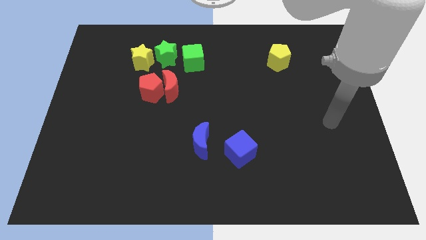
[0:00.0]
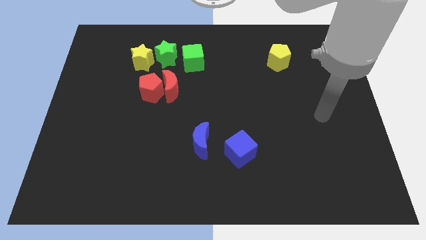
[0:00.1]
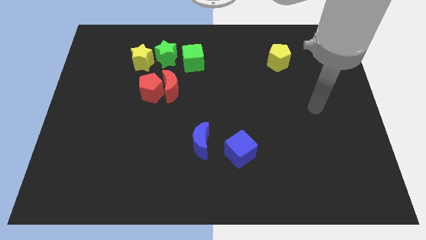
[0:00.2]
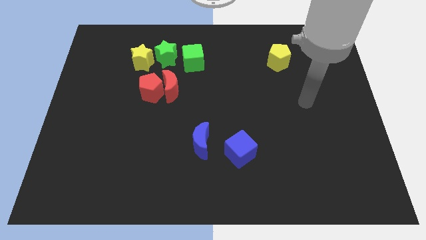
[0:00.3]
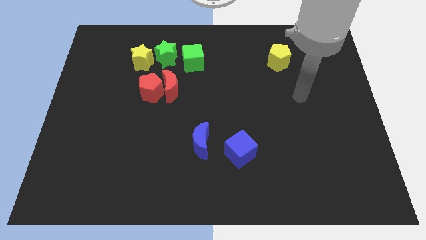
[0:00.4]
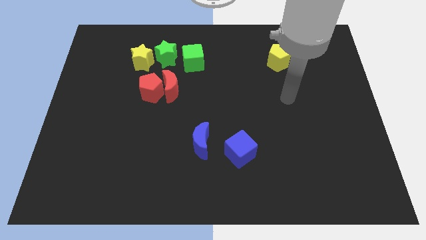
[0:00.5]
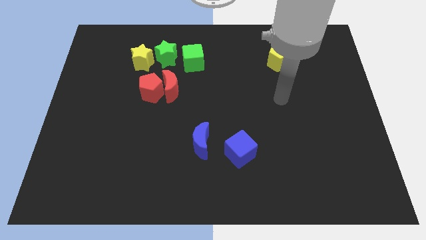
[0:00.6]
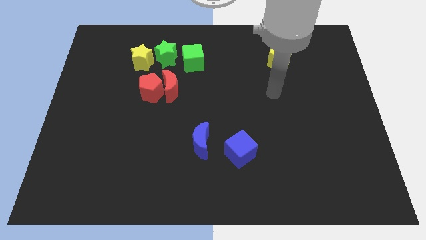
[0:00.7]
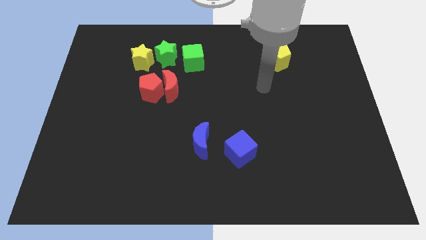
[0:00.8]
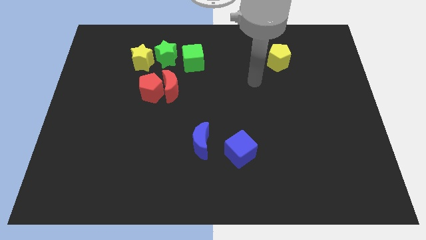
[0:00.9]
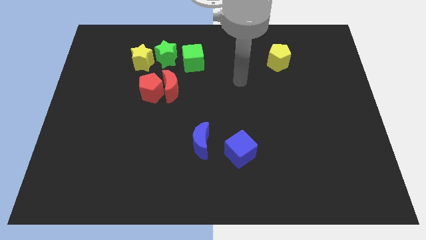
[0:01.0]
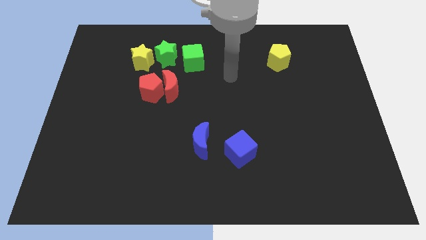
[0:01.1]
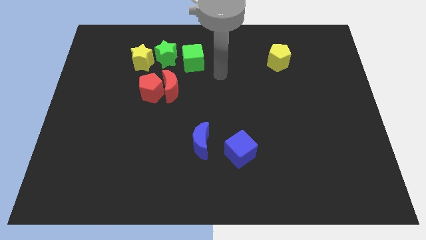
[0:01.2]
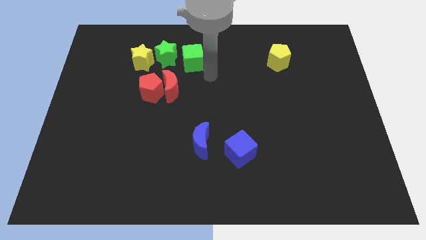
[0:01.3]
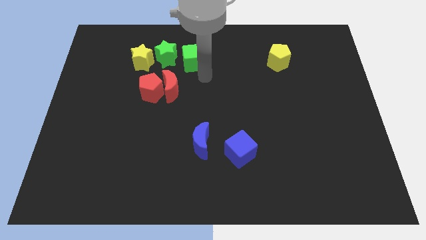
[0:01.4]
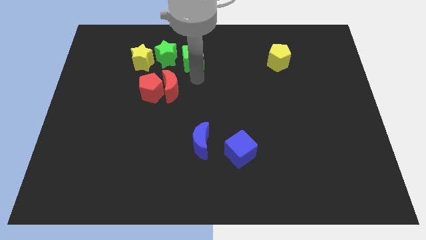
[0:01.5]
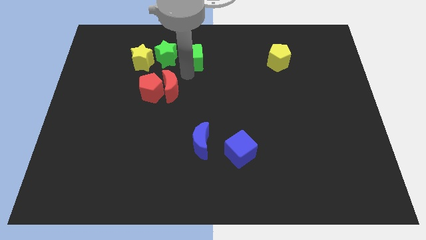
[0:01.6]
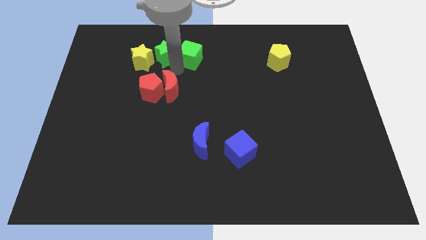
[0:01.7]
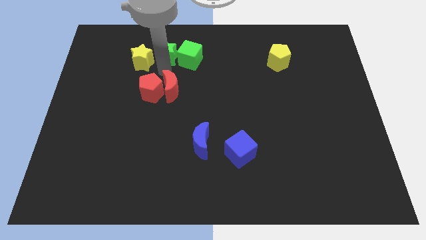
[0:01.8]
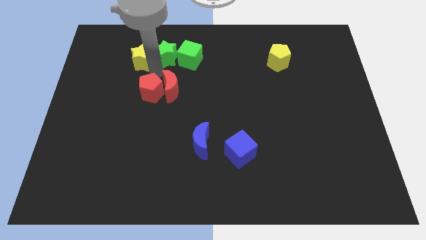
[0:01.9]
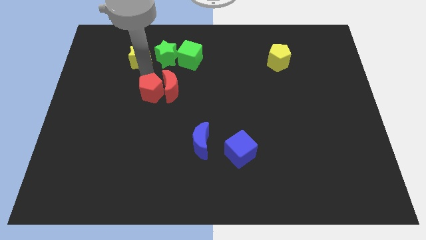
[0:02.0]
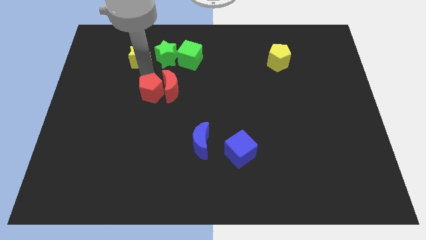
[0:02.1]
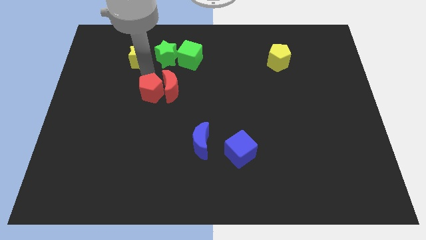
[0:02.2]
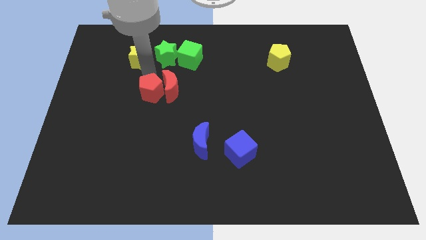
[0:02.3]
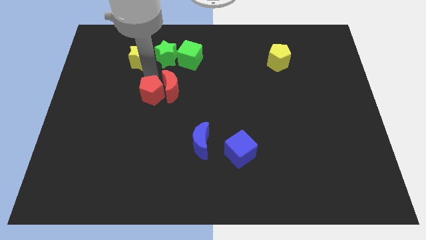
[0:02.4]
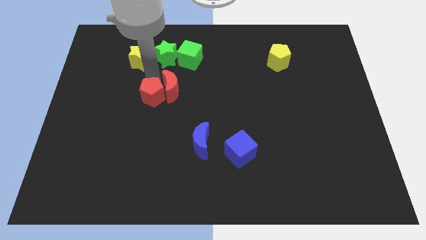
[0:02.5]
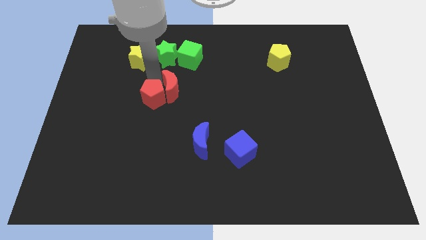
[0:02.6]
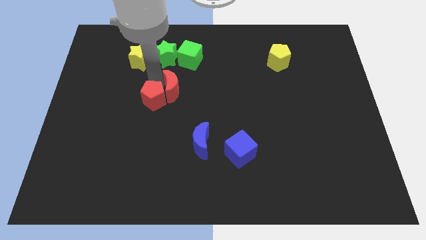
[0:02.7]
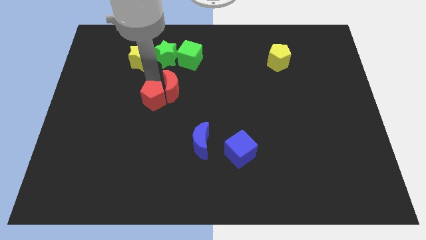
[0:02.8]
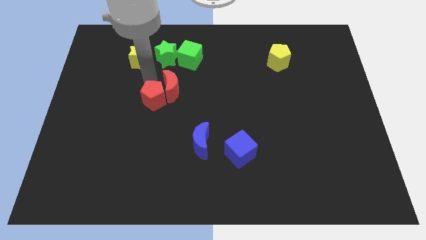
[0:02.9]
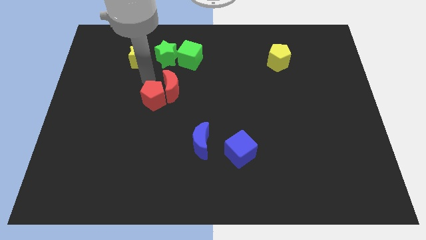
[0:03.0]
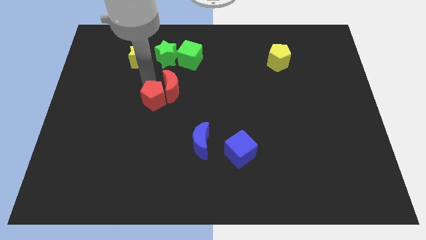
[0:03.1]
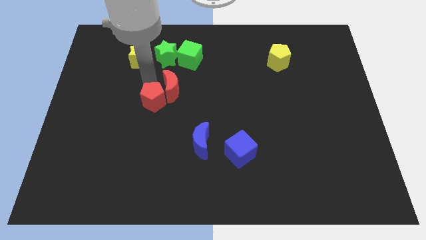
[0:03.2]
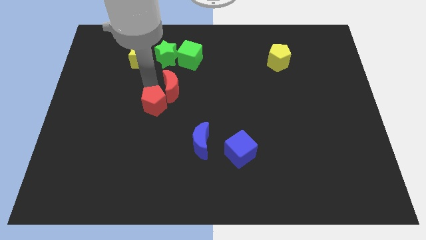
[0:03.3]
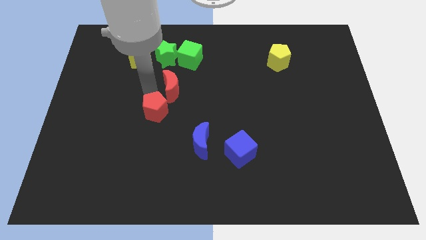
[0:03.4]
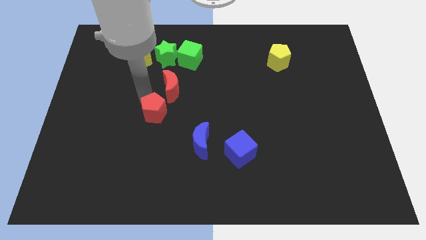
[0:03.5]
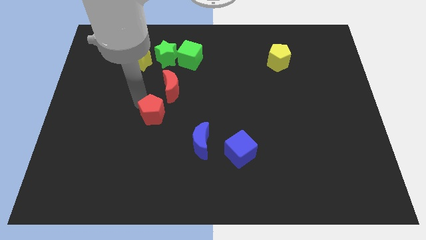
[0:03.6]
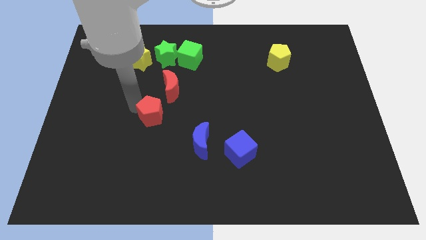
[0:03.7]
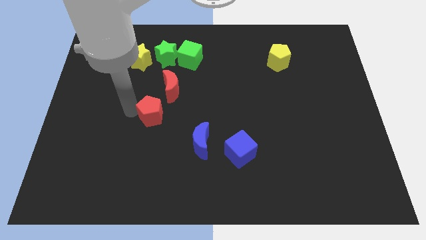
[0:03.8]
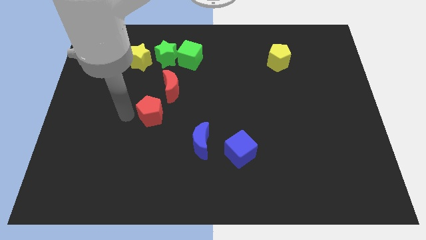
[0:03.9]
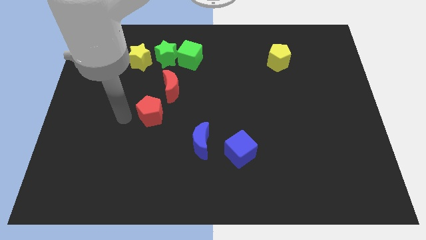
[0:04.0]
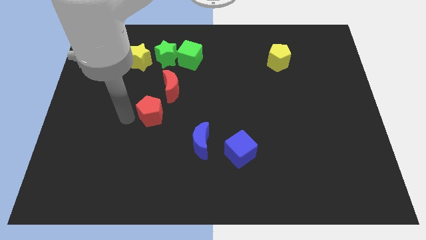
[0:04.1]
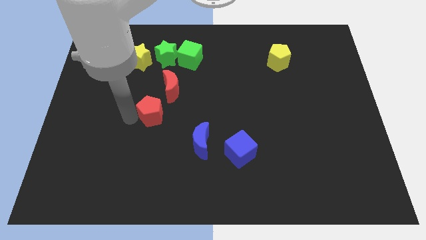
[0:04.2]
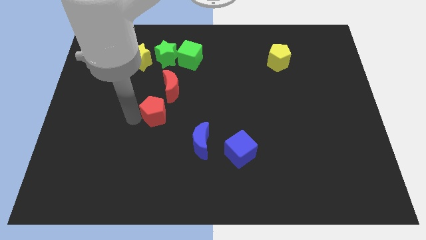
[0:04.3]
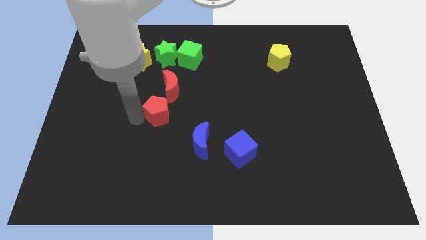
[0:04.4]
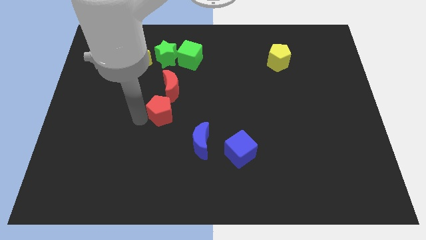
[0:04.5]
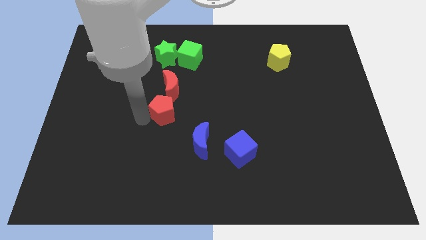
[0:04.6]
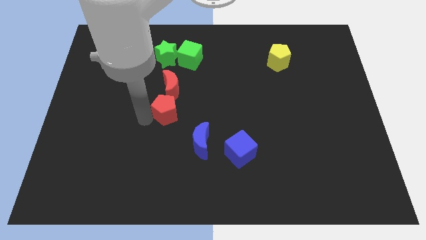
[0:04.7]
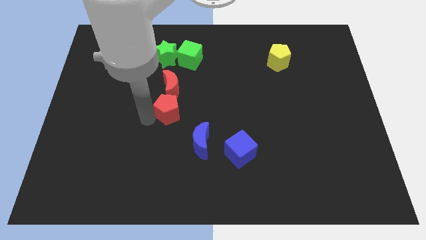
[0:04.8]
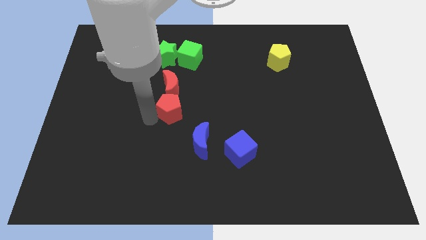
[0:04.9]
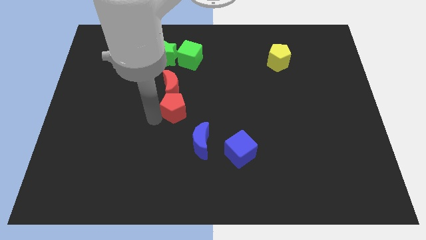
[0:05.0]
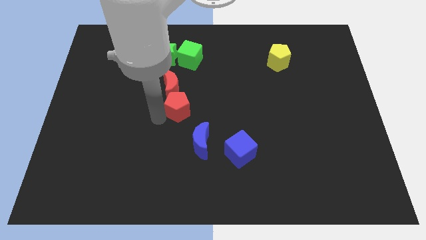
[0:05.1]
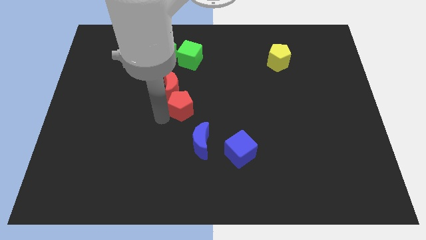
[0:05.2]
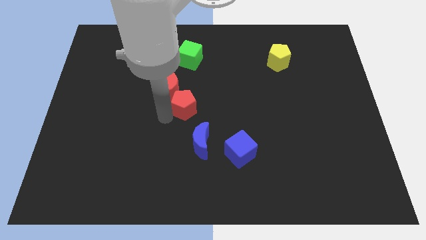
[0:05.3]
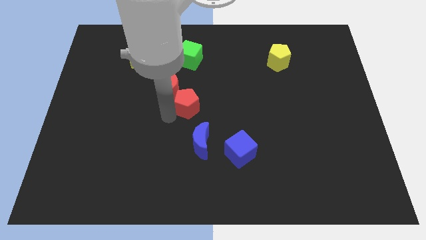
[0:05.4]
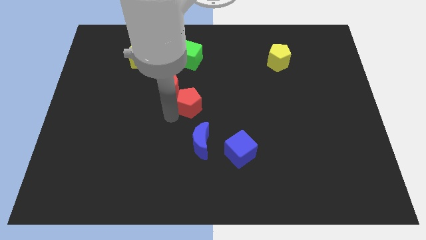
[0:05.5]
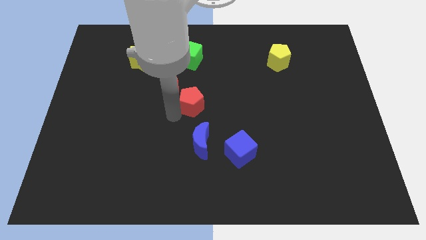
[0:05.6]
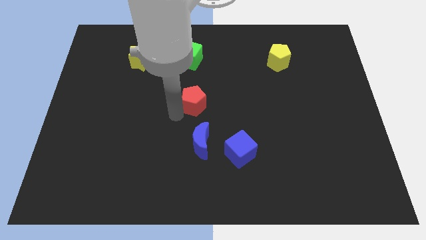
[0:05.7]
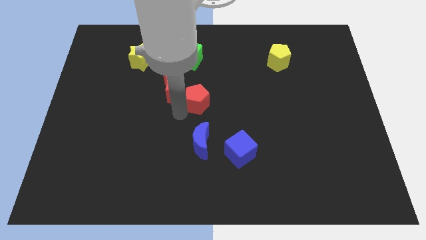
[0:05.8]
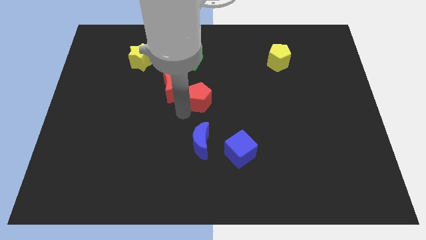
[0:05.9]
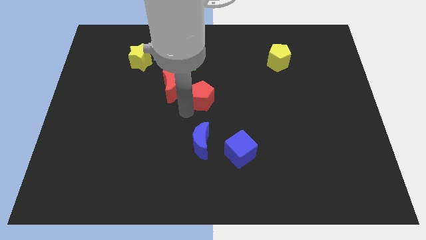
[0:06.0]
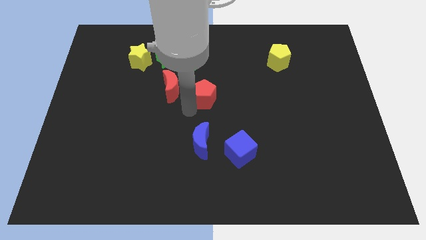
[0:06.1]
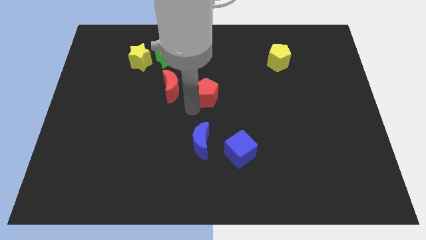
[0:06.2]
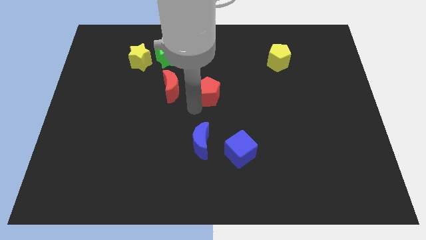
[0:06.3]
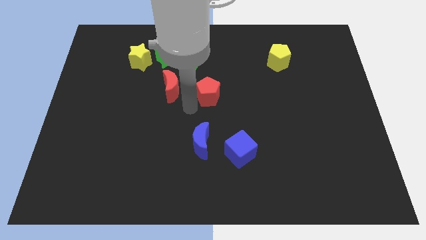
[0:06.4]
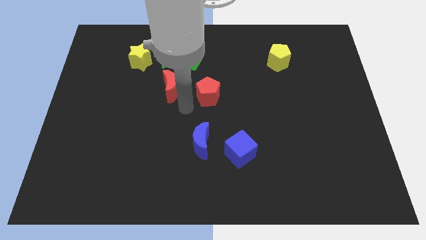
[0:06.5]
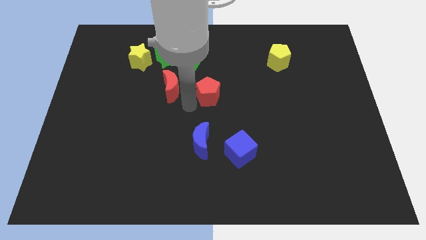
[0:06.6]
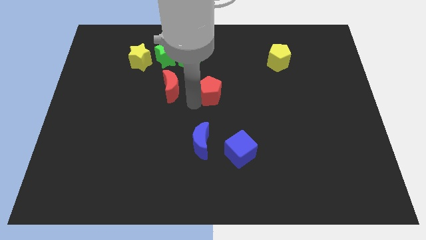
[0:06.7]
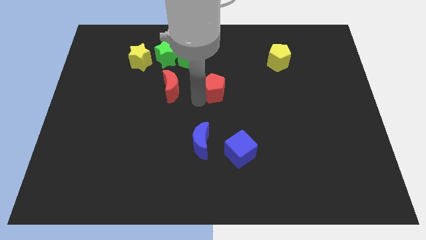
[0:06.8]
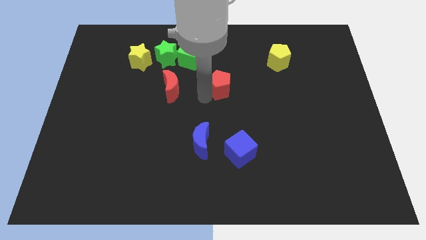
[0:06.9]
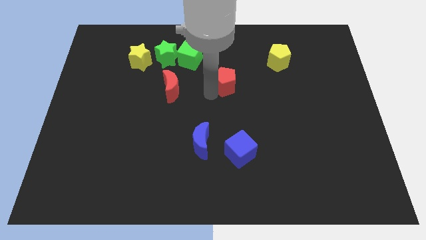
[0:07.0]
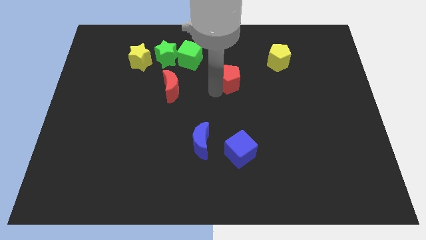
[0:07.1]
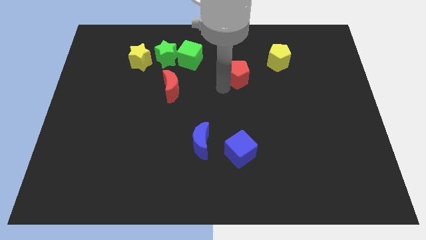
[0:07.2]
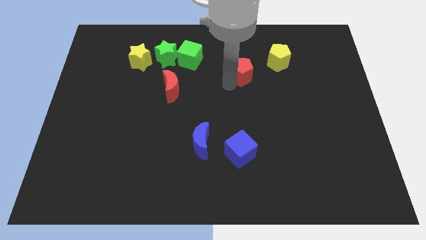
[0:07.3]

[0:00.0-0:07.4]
slide the red pentagon left of the yellow pentagon

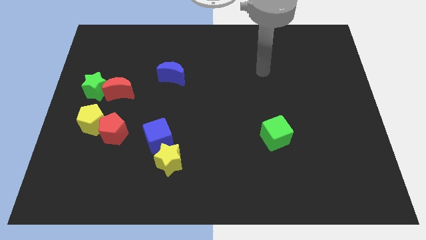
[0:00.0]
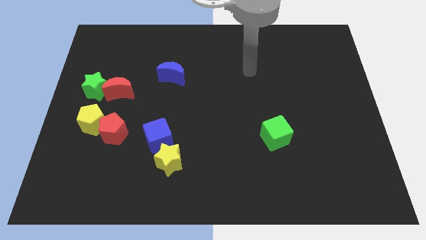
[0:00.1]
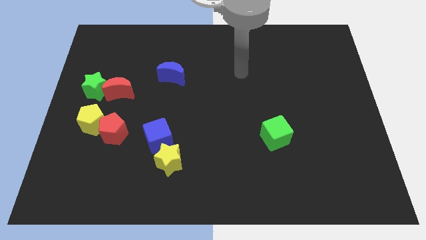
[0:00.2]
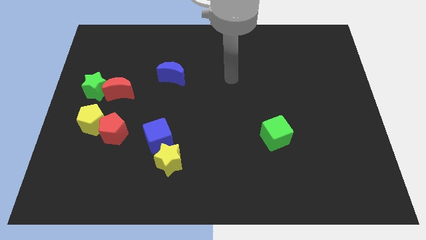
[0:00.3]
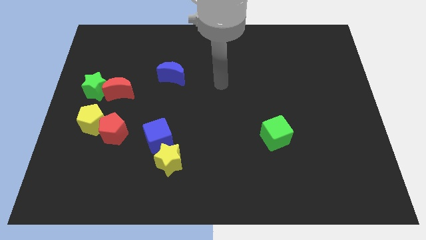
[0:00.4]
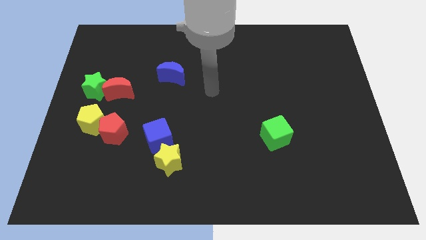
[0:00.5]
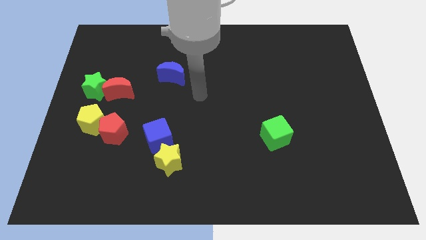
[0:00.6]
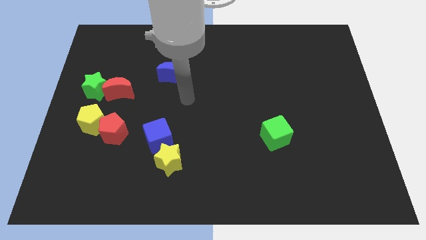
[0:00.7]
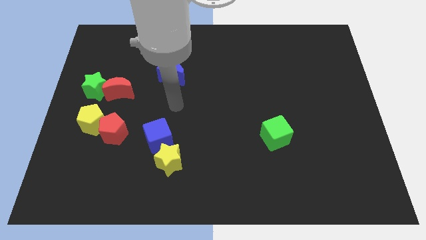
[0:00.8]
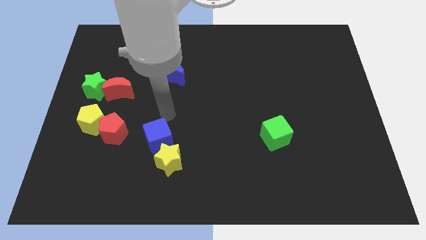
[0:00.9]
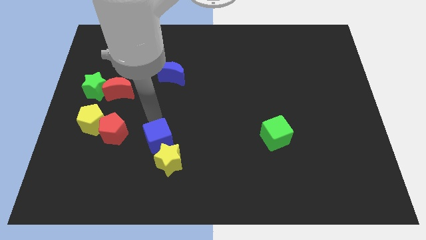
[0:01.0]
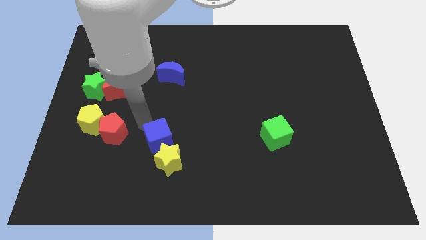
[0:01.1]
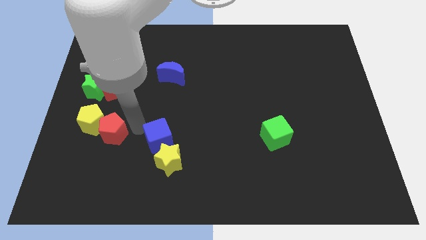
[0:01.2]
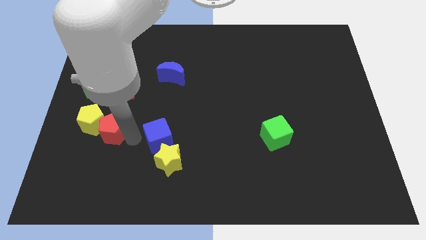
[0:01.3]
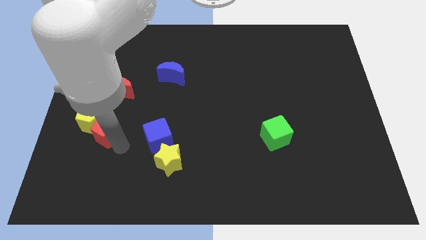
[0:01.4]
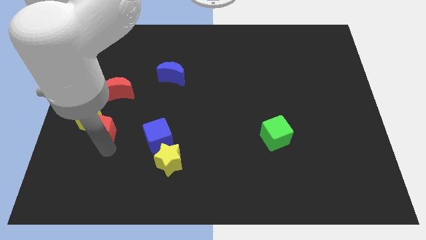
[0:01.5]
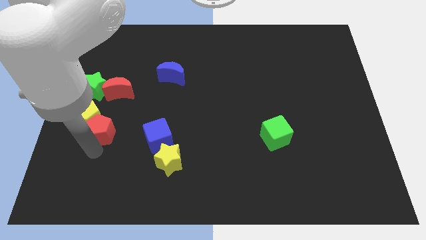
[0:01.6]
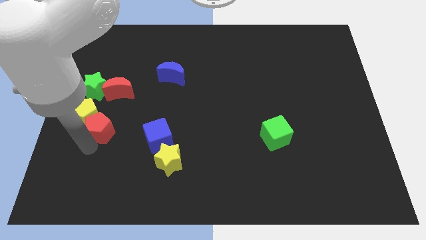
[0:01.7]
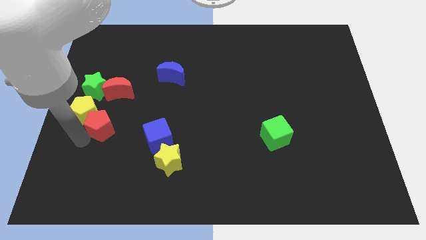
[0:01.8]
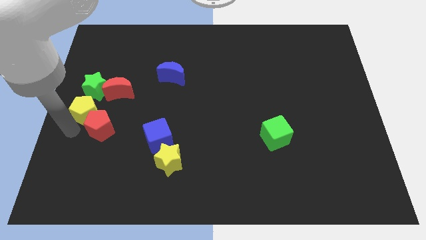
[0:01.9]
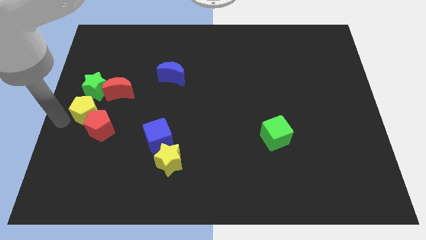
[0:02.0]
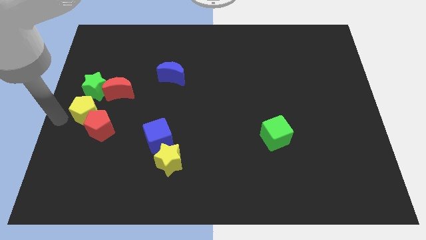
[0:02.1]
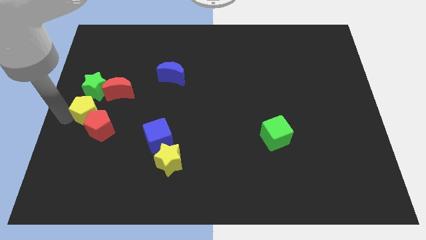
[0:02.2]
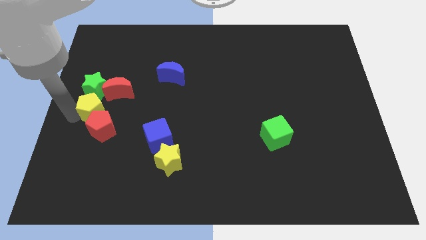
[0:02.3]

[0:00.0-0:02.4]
slide the yellow pentagon to the bottom right side of the green star
